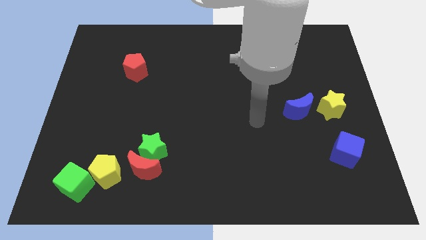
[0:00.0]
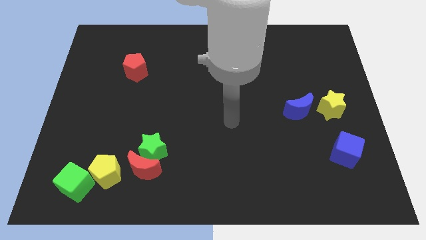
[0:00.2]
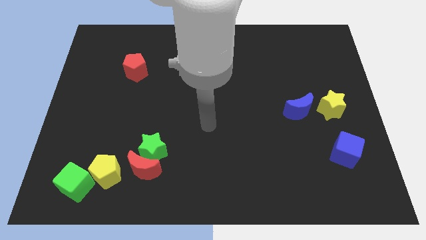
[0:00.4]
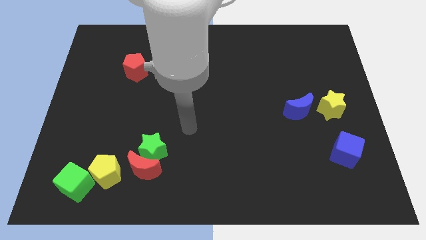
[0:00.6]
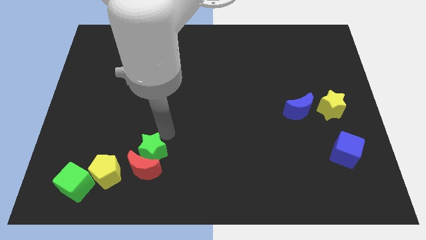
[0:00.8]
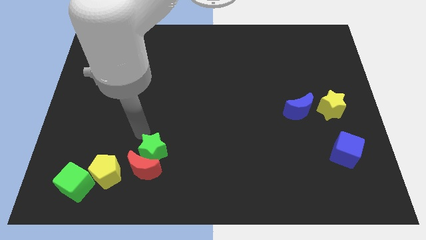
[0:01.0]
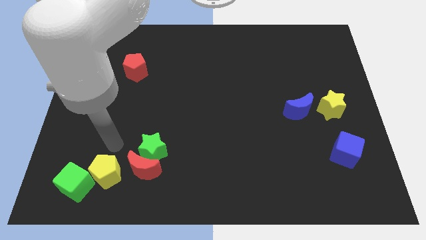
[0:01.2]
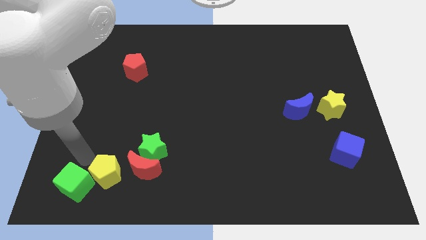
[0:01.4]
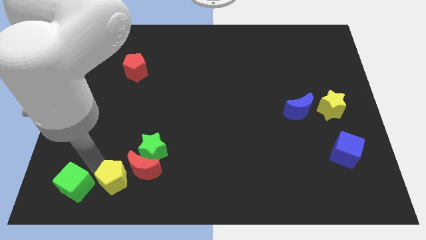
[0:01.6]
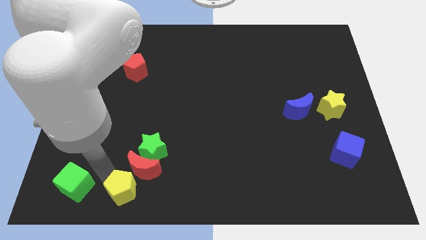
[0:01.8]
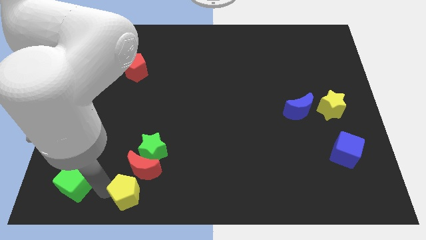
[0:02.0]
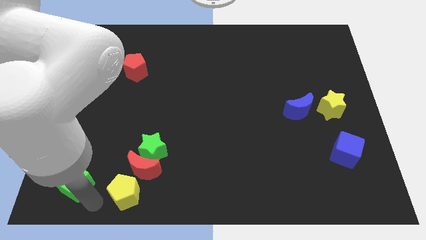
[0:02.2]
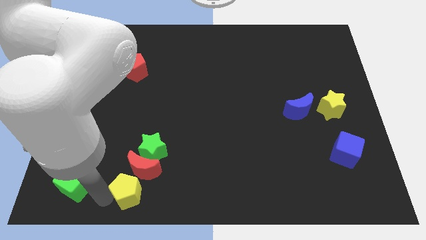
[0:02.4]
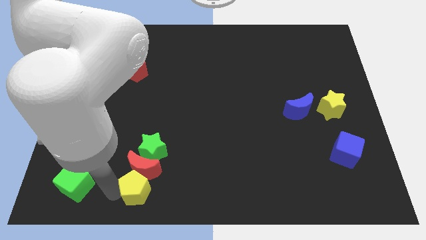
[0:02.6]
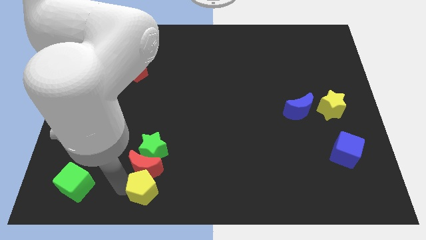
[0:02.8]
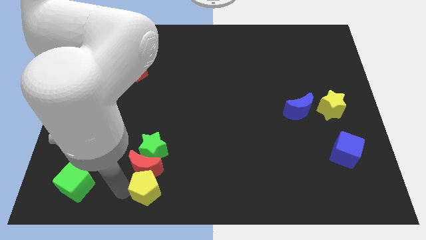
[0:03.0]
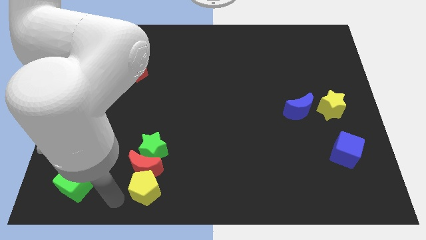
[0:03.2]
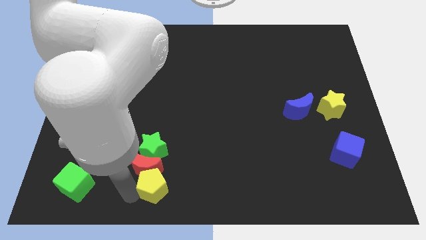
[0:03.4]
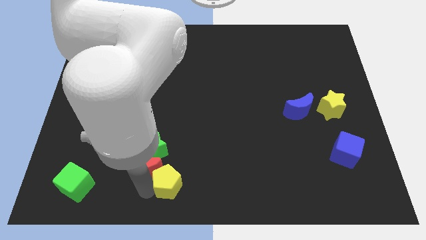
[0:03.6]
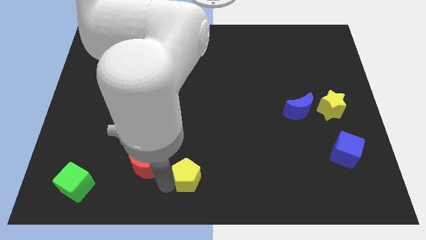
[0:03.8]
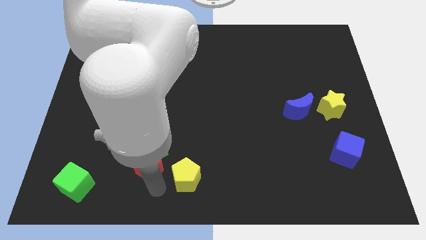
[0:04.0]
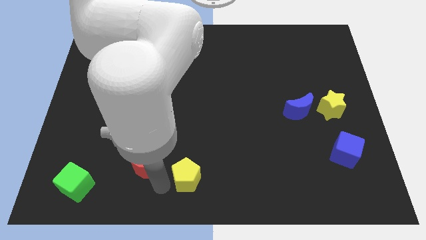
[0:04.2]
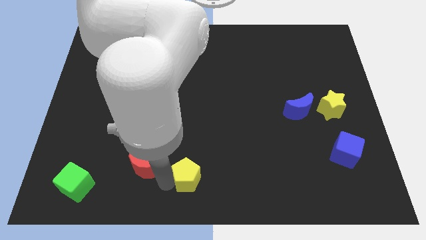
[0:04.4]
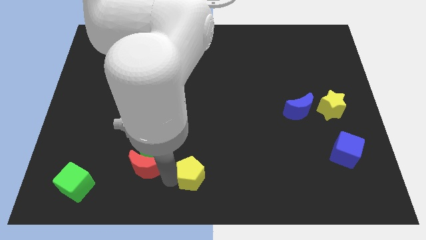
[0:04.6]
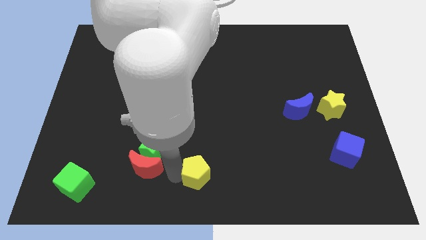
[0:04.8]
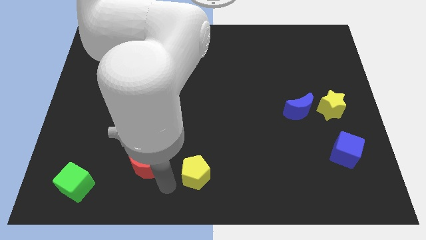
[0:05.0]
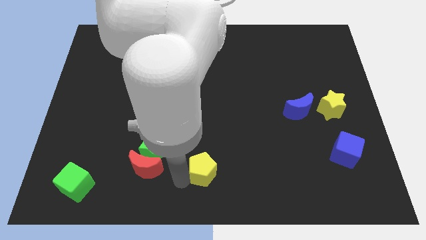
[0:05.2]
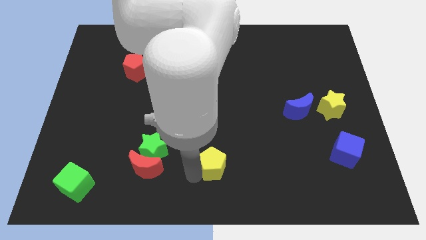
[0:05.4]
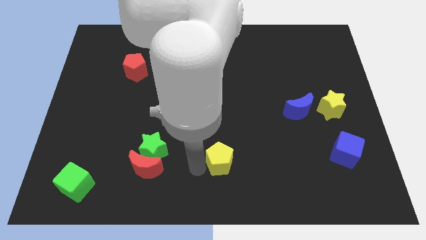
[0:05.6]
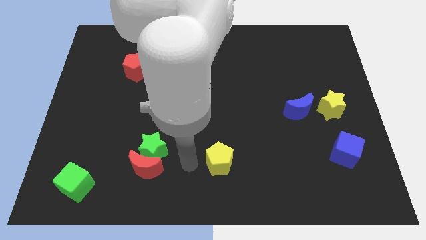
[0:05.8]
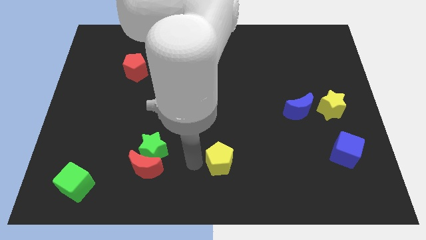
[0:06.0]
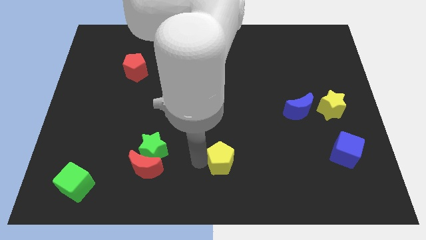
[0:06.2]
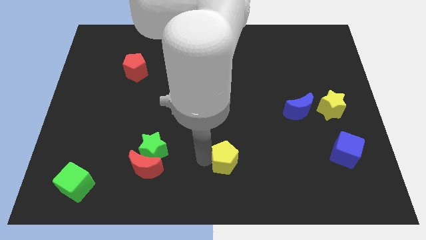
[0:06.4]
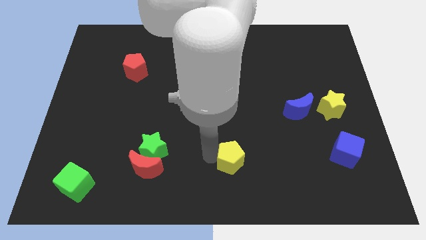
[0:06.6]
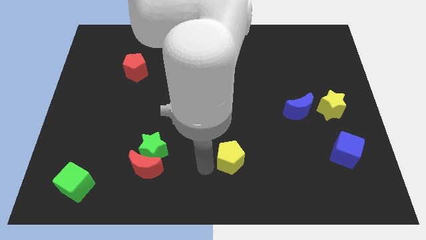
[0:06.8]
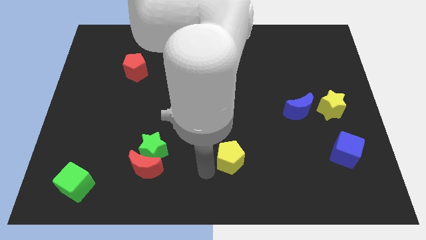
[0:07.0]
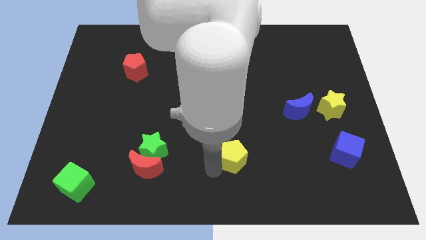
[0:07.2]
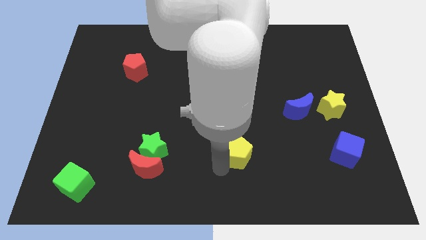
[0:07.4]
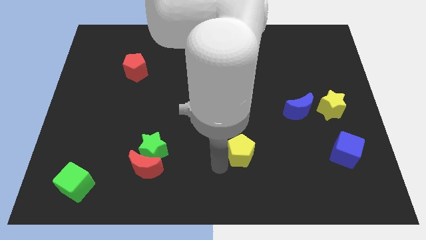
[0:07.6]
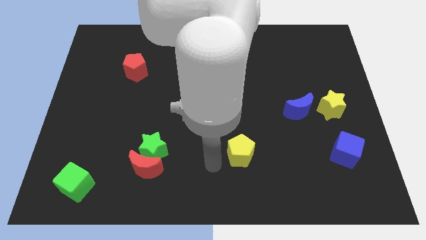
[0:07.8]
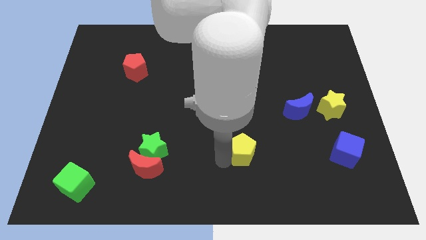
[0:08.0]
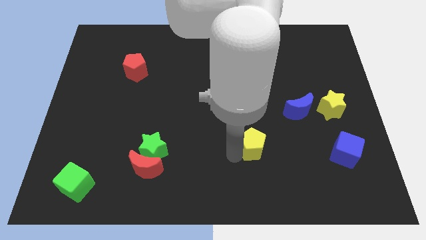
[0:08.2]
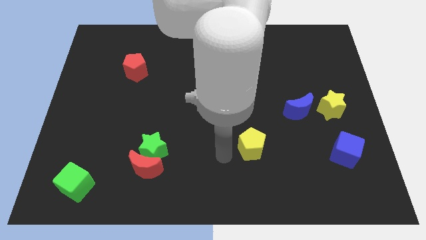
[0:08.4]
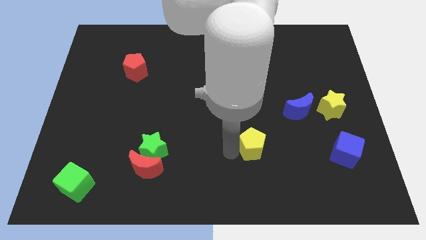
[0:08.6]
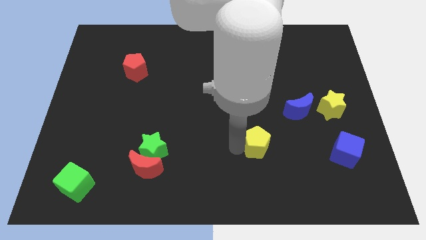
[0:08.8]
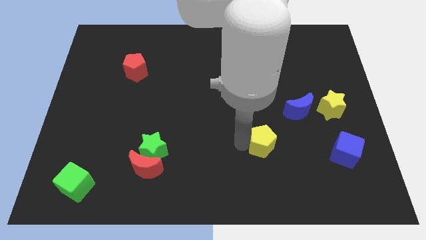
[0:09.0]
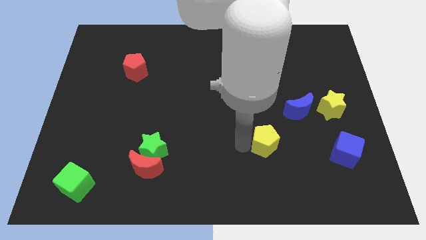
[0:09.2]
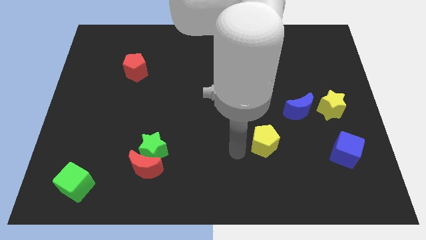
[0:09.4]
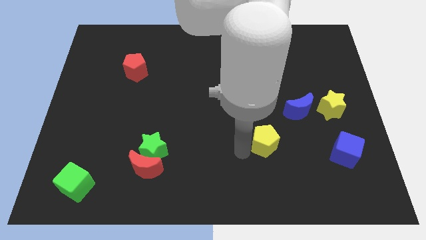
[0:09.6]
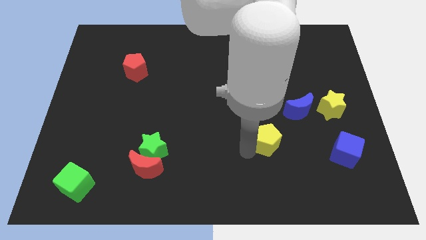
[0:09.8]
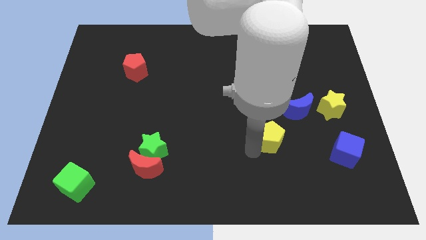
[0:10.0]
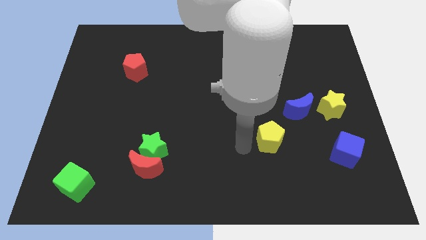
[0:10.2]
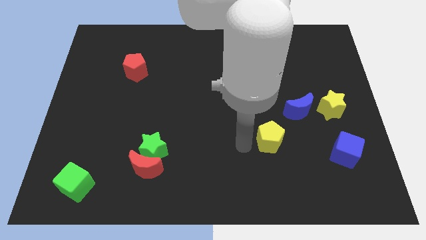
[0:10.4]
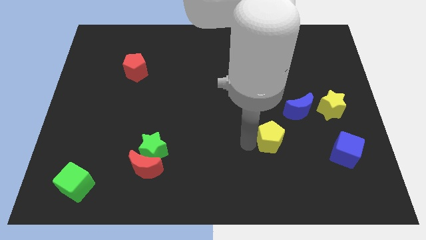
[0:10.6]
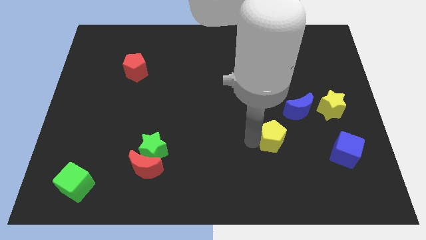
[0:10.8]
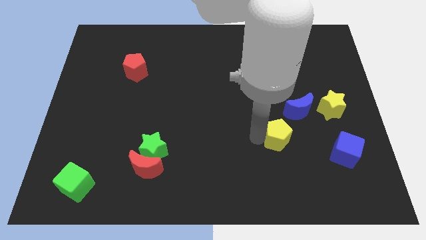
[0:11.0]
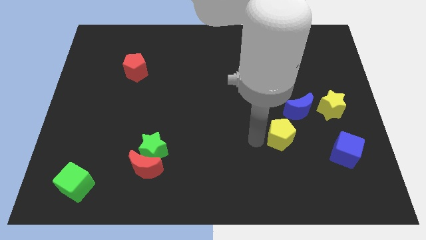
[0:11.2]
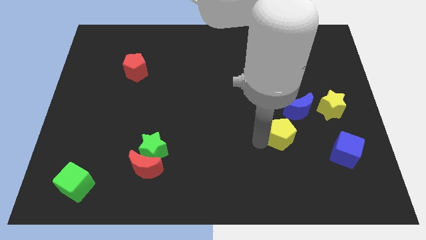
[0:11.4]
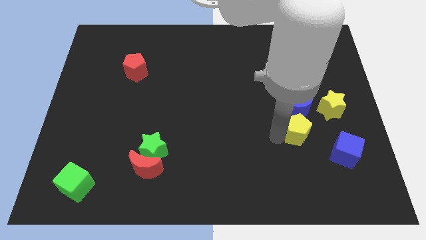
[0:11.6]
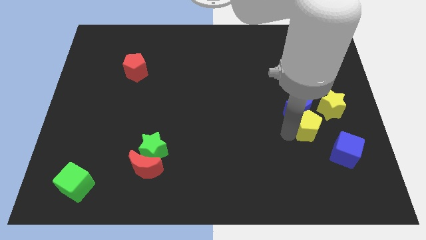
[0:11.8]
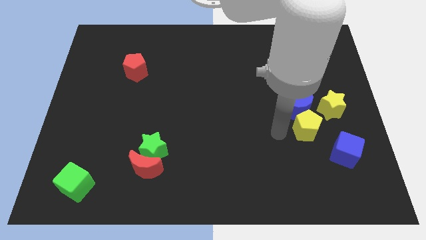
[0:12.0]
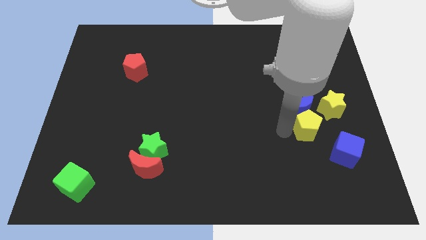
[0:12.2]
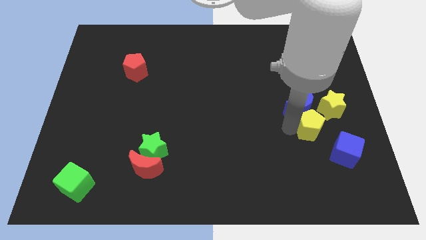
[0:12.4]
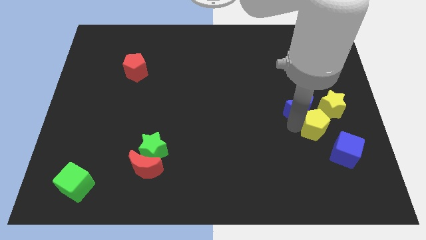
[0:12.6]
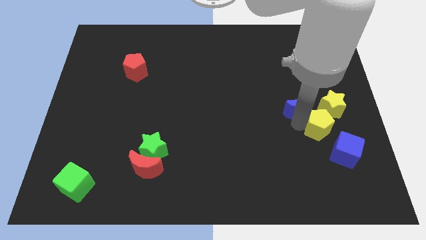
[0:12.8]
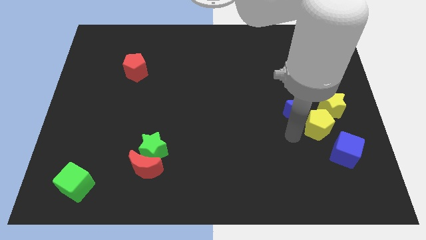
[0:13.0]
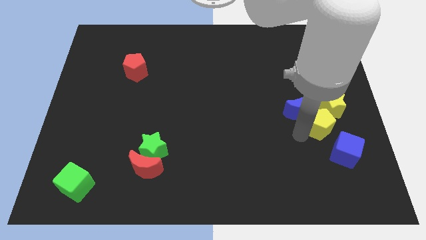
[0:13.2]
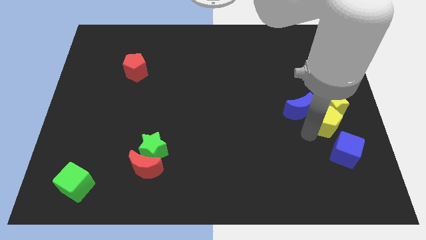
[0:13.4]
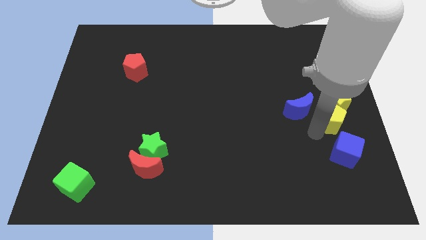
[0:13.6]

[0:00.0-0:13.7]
slide the yellow pentagon to the right side of the board
